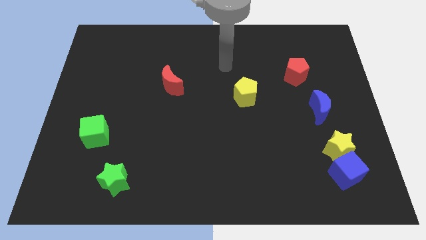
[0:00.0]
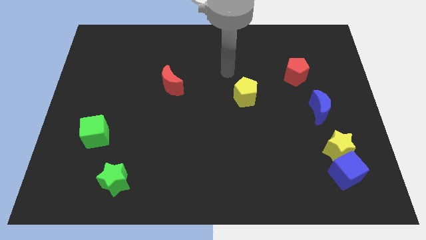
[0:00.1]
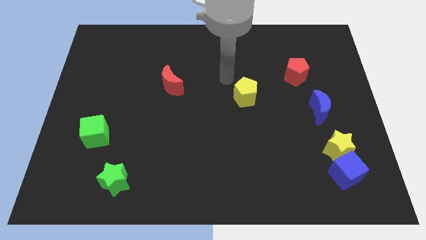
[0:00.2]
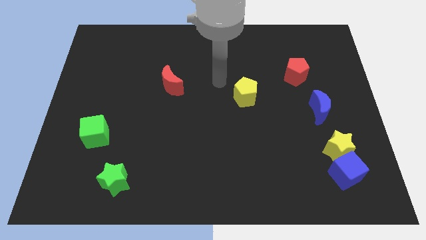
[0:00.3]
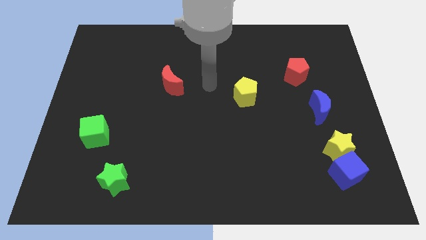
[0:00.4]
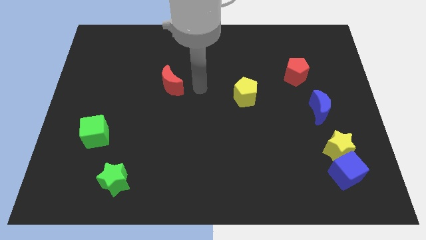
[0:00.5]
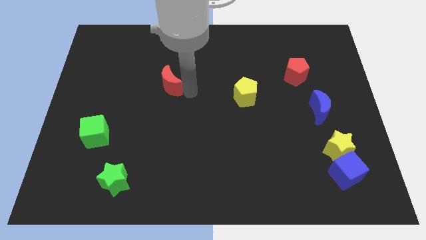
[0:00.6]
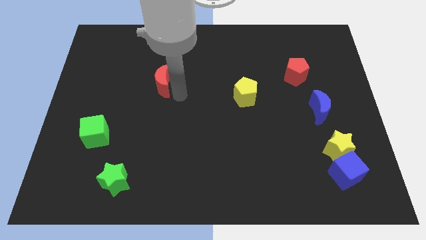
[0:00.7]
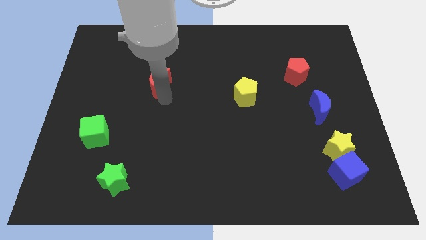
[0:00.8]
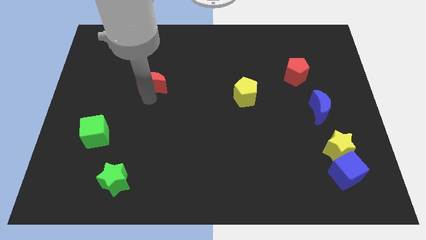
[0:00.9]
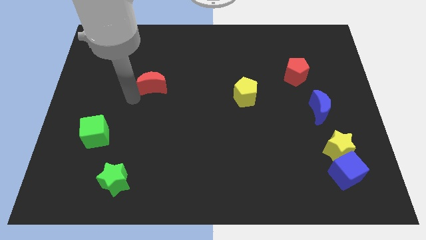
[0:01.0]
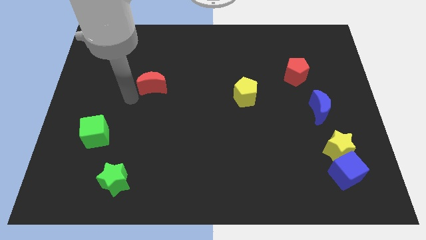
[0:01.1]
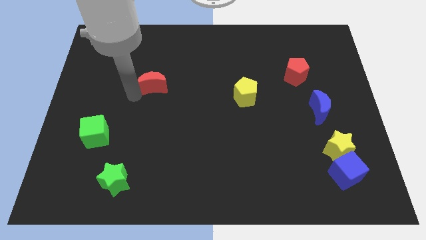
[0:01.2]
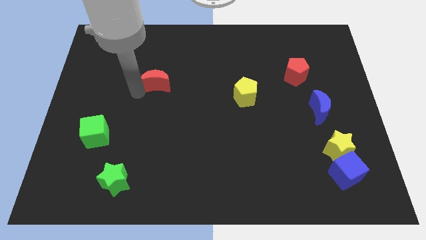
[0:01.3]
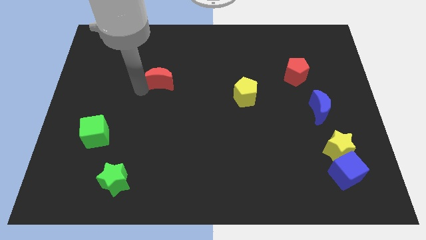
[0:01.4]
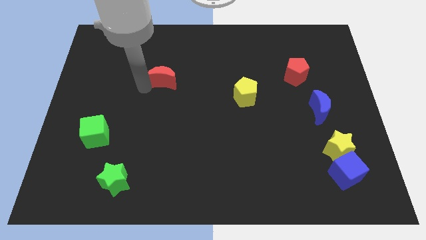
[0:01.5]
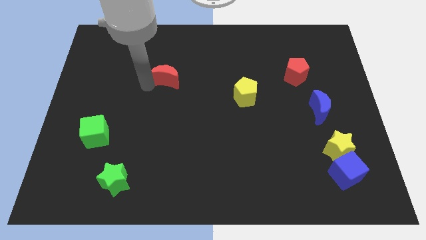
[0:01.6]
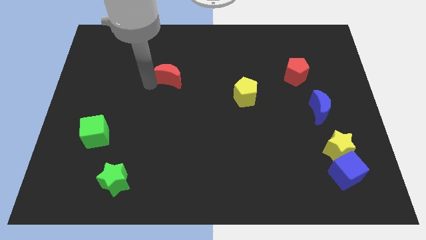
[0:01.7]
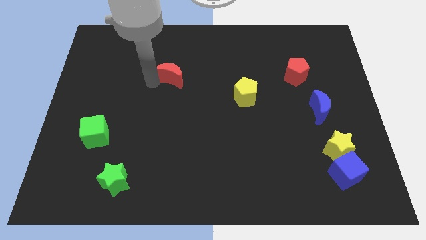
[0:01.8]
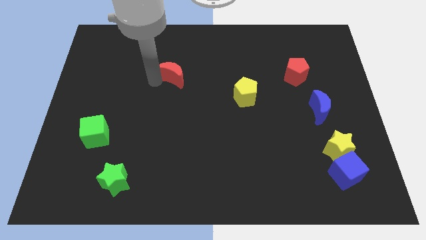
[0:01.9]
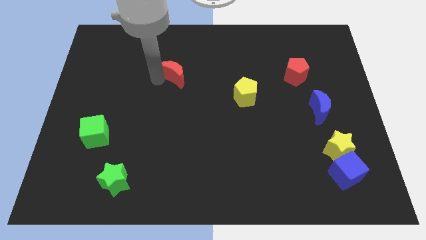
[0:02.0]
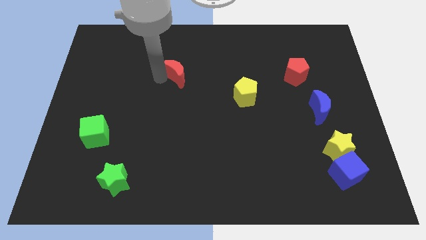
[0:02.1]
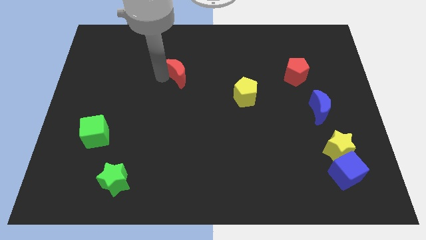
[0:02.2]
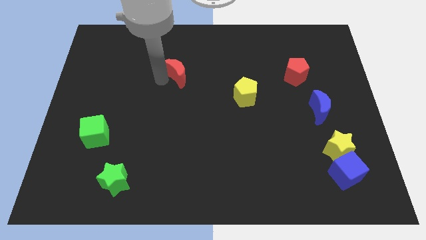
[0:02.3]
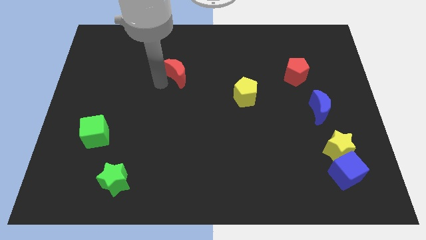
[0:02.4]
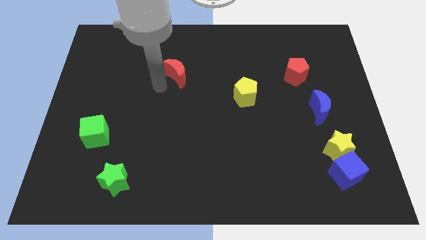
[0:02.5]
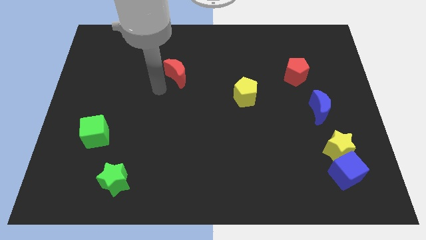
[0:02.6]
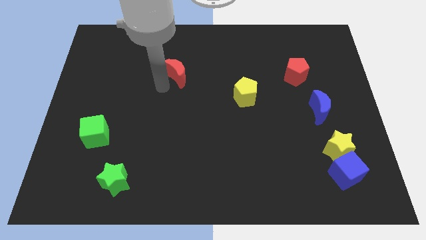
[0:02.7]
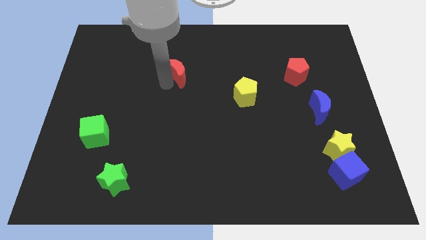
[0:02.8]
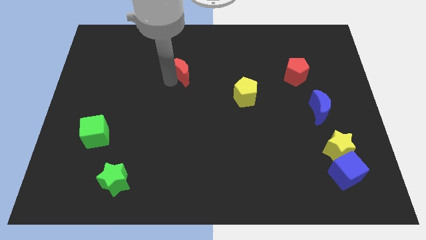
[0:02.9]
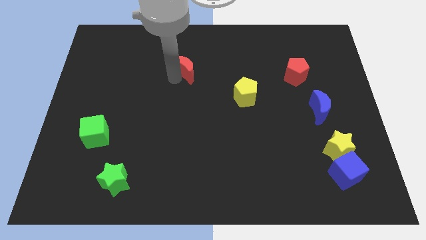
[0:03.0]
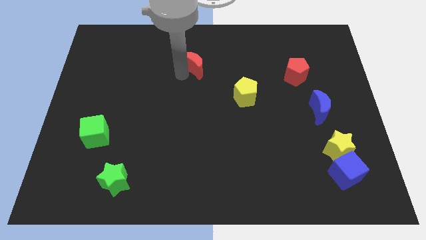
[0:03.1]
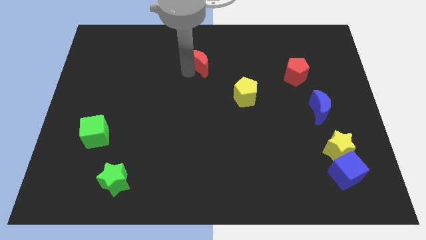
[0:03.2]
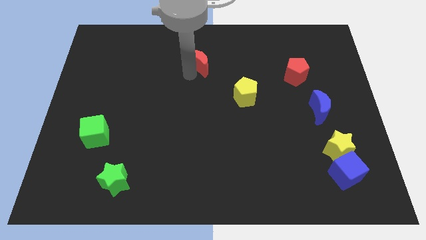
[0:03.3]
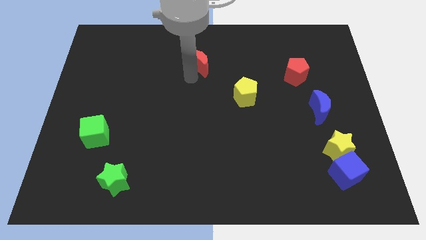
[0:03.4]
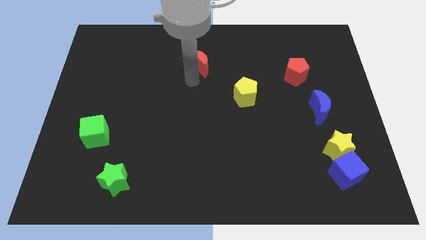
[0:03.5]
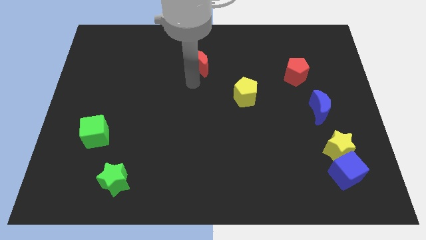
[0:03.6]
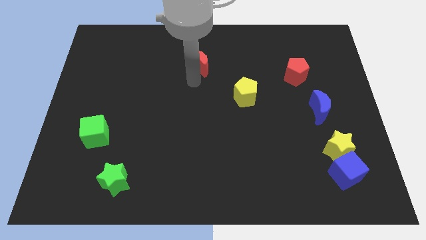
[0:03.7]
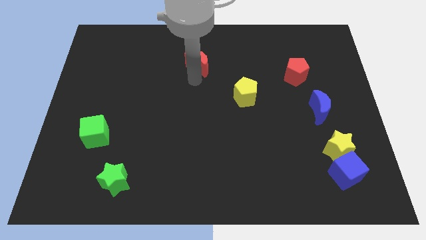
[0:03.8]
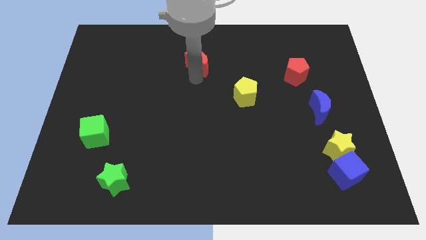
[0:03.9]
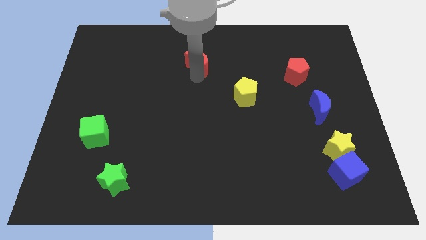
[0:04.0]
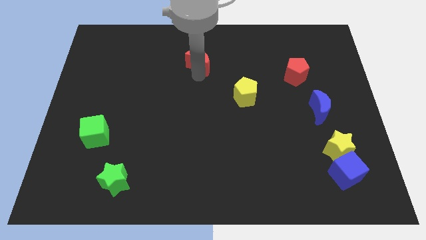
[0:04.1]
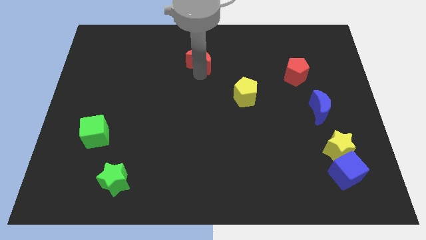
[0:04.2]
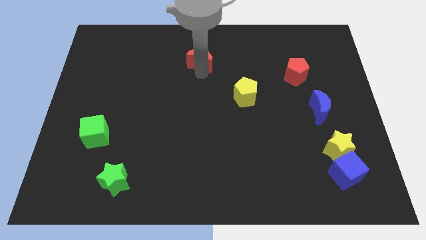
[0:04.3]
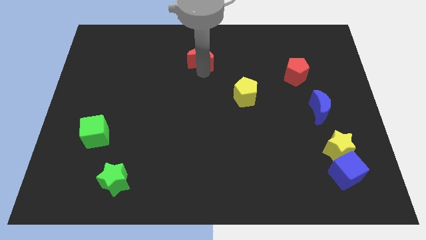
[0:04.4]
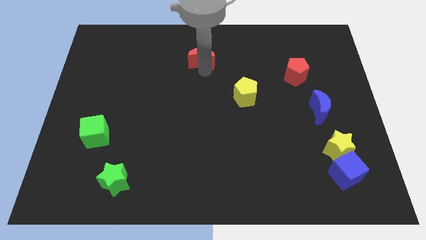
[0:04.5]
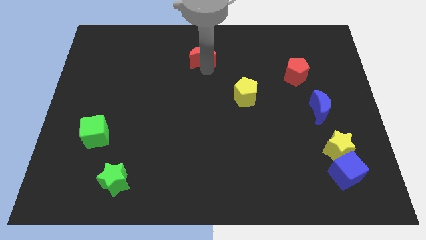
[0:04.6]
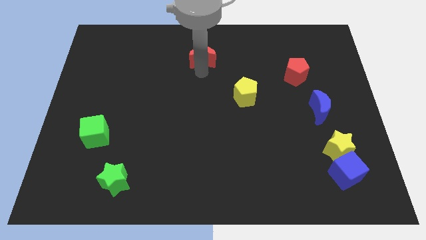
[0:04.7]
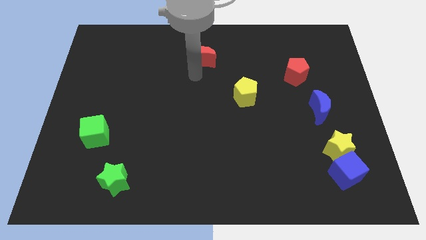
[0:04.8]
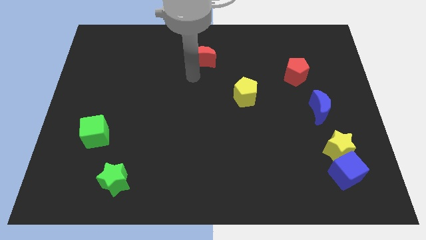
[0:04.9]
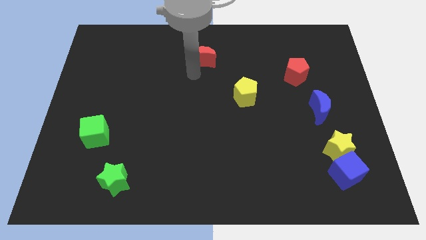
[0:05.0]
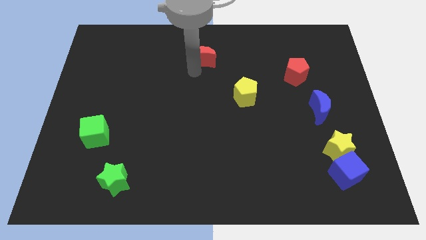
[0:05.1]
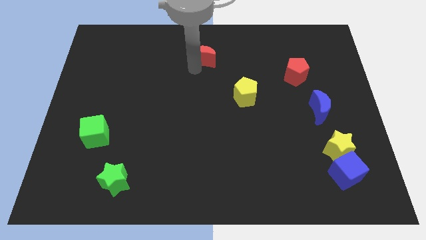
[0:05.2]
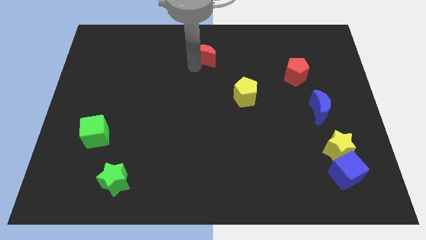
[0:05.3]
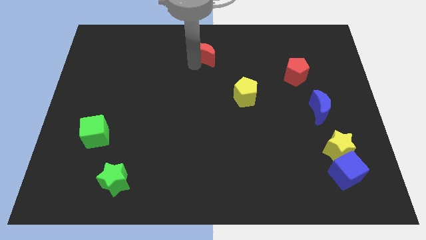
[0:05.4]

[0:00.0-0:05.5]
slide the red moon to the top
